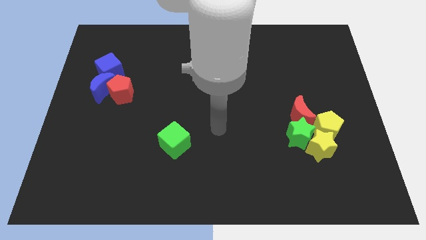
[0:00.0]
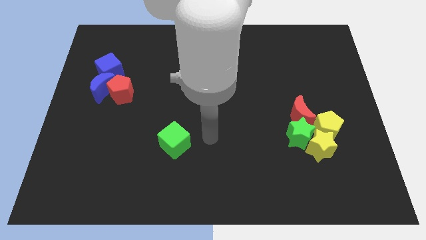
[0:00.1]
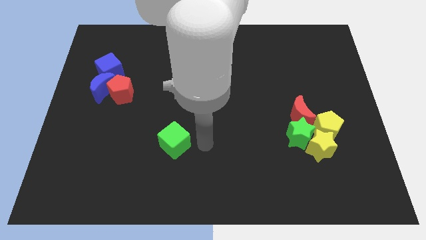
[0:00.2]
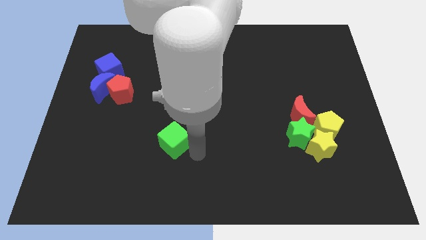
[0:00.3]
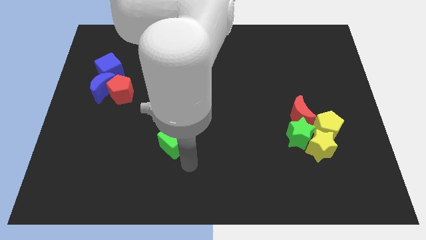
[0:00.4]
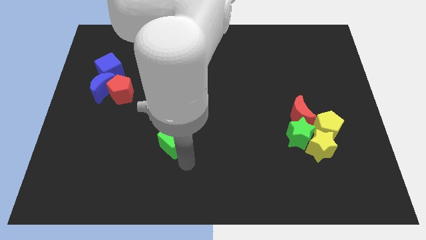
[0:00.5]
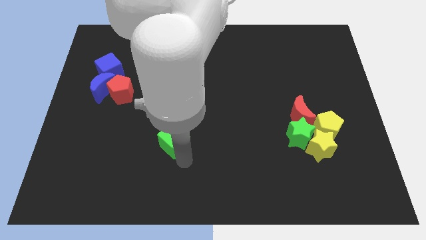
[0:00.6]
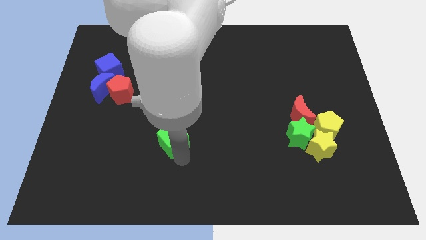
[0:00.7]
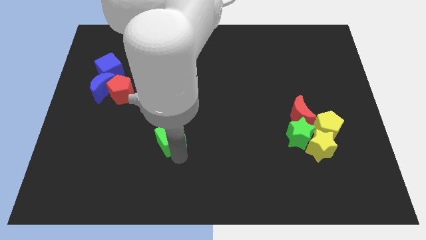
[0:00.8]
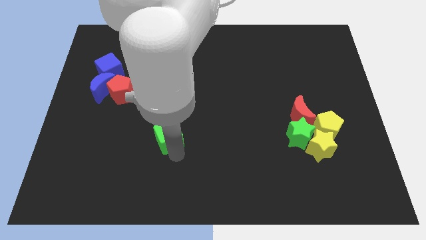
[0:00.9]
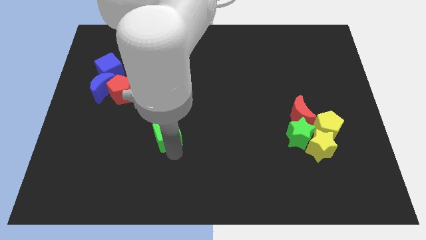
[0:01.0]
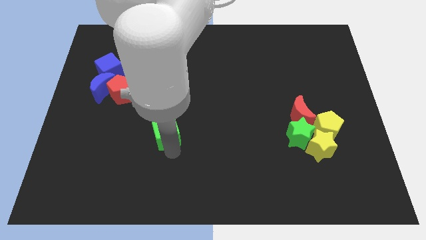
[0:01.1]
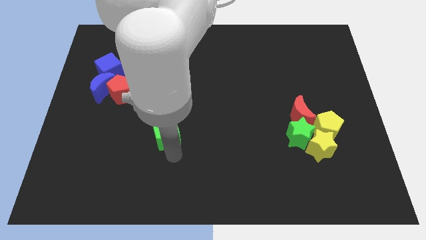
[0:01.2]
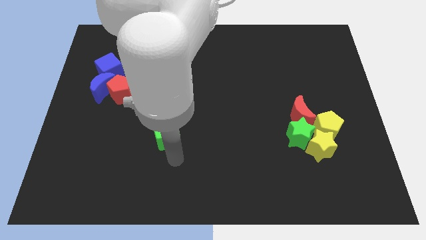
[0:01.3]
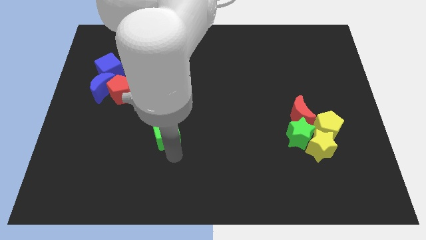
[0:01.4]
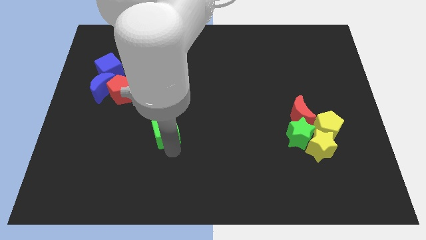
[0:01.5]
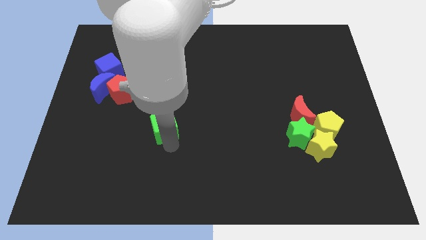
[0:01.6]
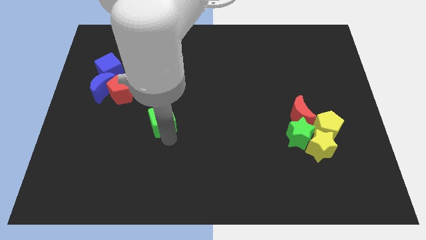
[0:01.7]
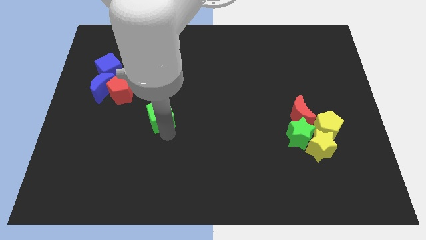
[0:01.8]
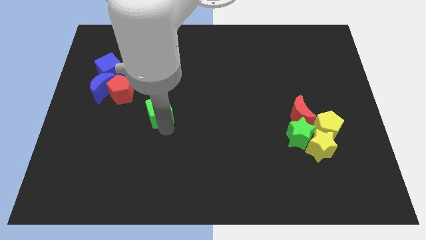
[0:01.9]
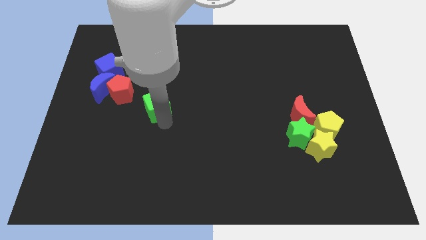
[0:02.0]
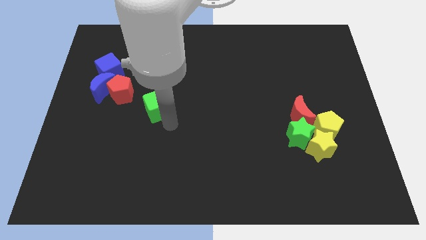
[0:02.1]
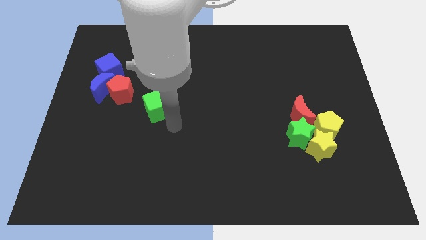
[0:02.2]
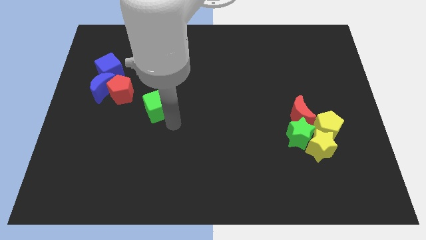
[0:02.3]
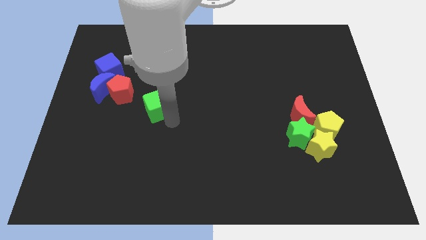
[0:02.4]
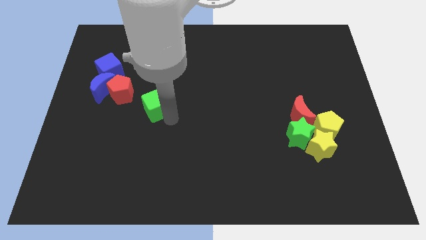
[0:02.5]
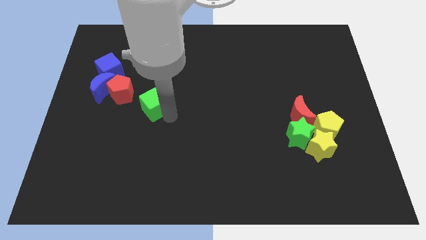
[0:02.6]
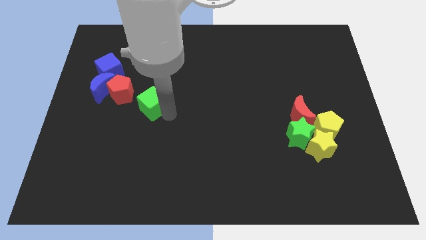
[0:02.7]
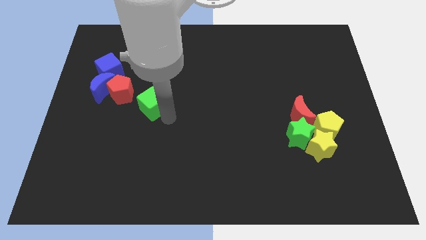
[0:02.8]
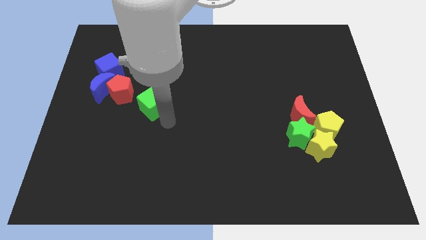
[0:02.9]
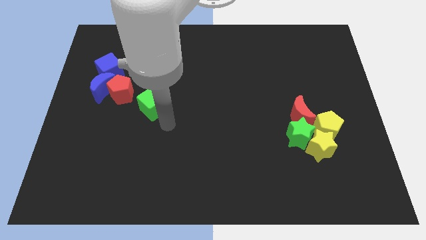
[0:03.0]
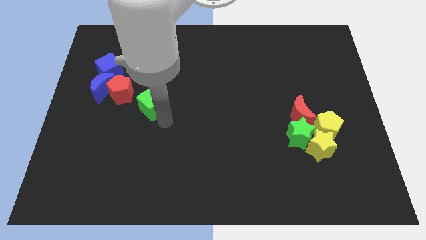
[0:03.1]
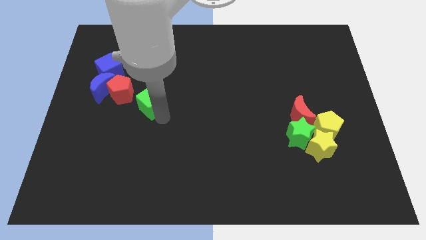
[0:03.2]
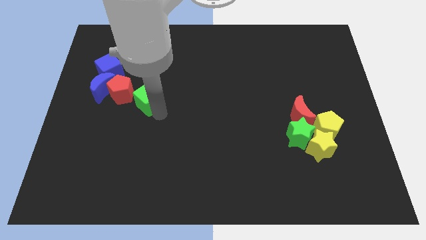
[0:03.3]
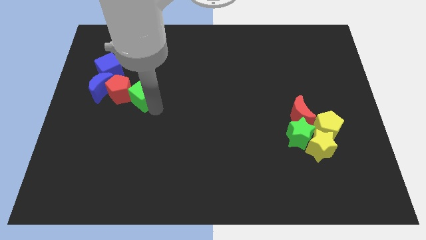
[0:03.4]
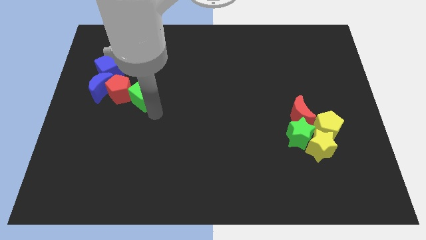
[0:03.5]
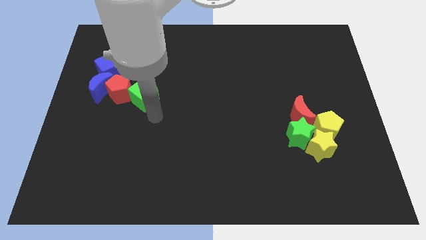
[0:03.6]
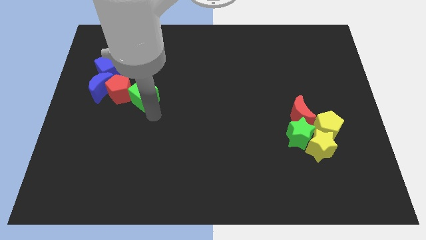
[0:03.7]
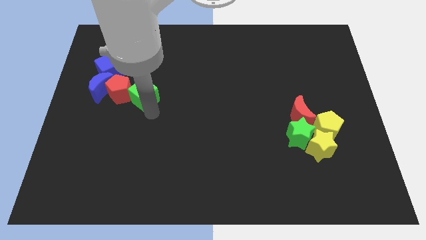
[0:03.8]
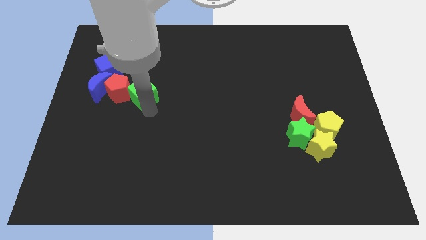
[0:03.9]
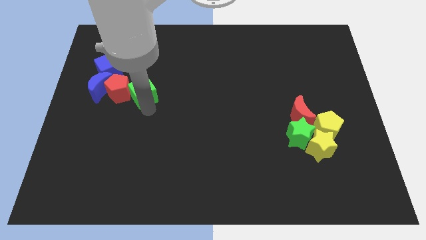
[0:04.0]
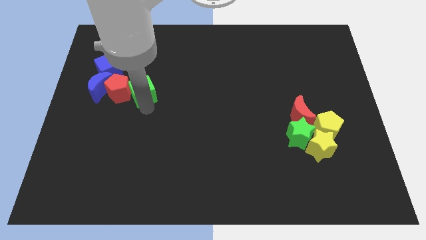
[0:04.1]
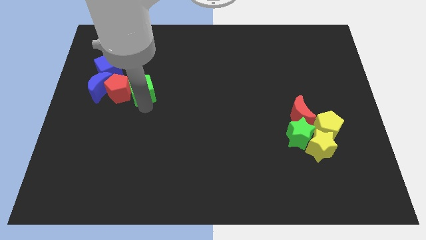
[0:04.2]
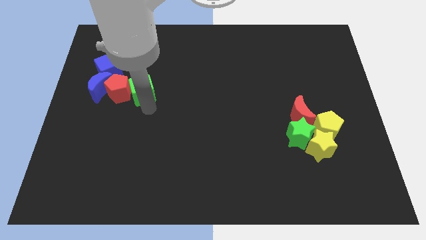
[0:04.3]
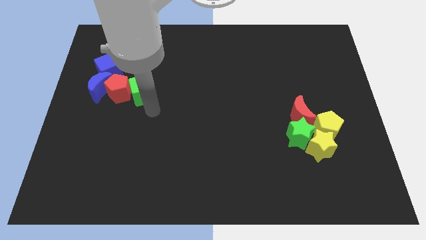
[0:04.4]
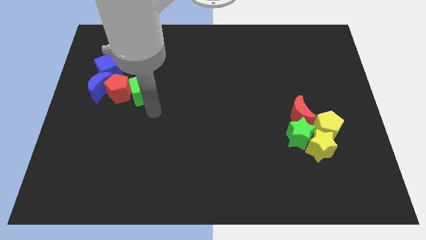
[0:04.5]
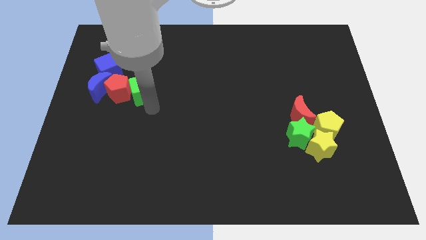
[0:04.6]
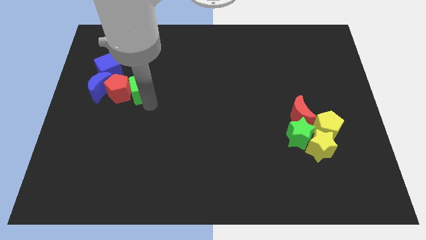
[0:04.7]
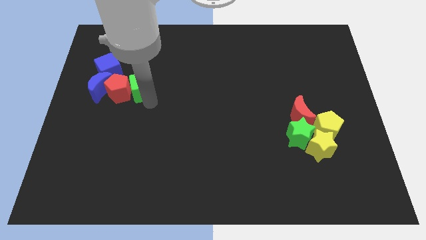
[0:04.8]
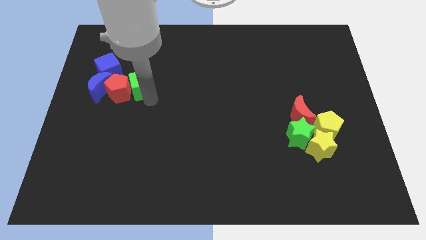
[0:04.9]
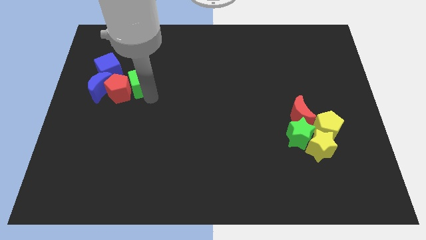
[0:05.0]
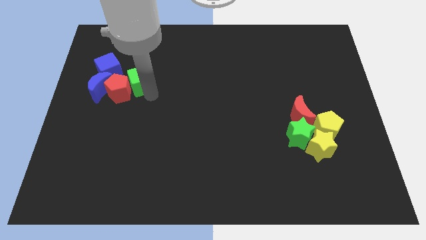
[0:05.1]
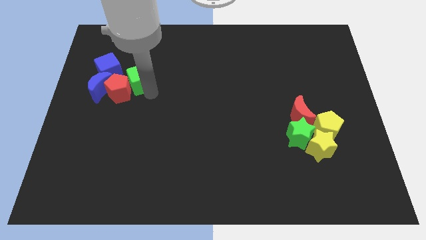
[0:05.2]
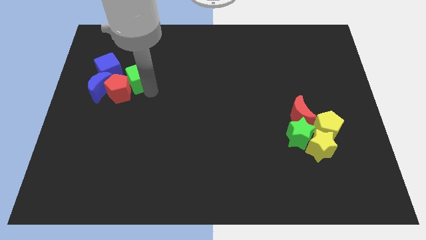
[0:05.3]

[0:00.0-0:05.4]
slide the green cube to the top side of the red pentagon

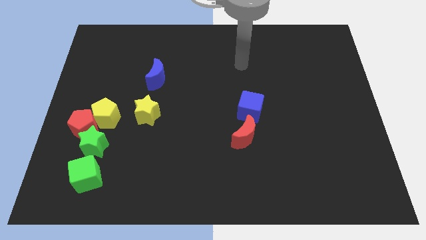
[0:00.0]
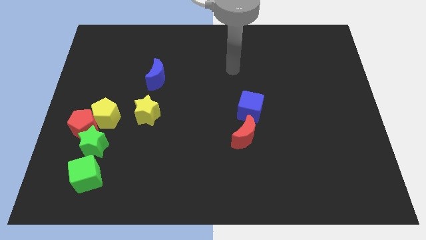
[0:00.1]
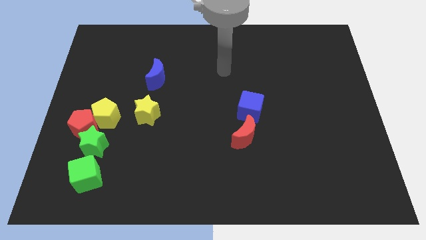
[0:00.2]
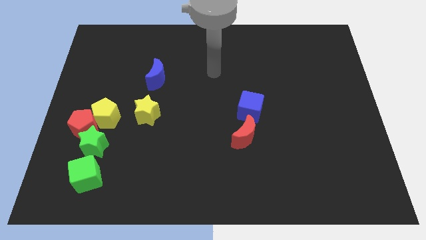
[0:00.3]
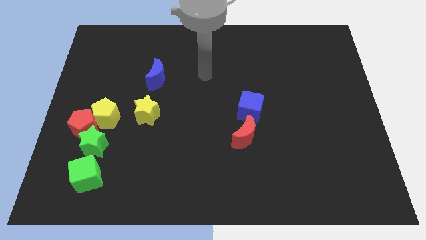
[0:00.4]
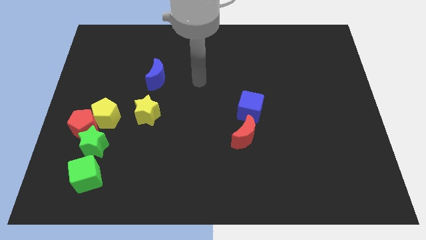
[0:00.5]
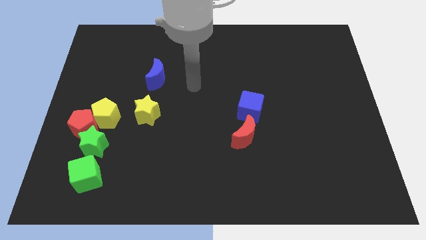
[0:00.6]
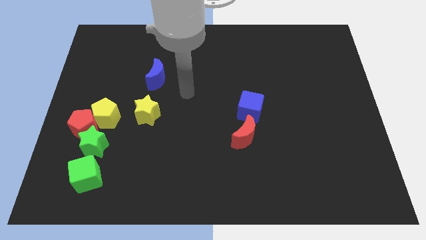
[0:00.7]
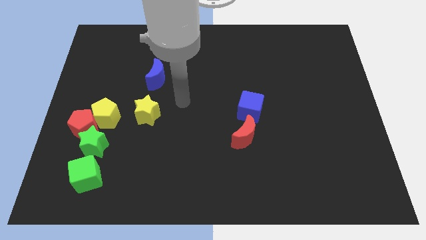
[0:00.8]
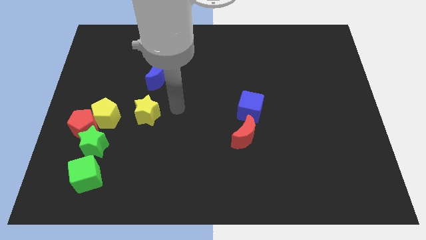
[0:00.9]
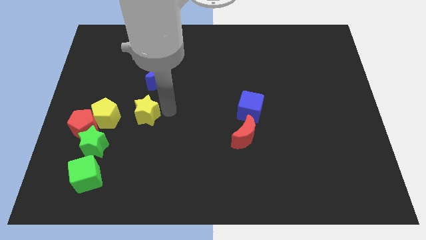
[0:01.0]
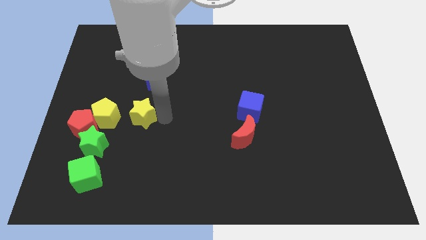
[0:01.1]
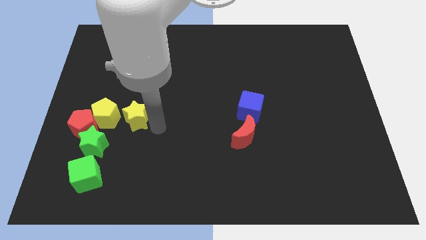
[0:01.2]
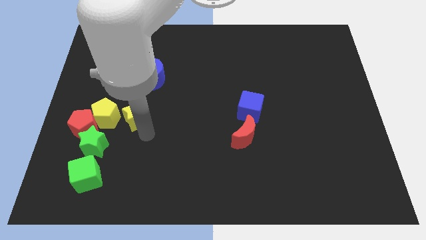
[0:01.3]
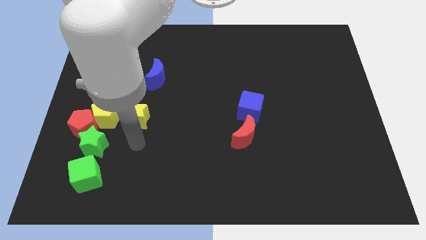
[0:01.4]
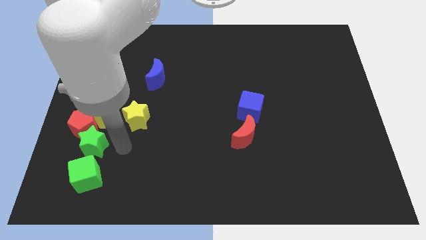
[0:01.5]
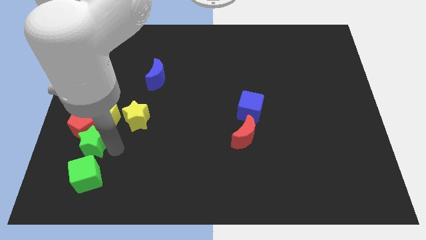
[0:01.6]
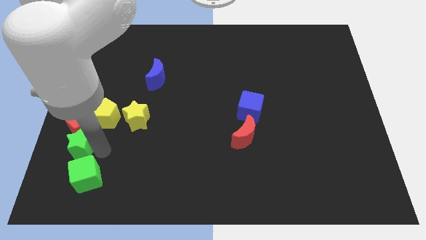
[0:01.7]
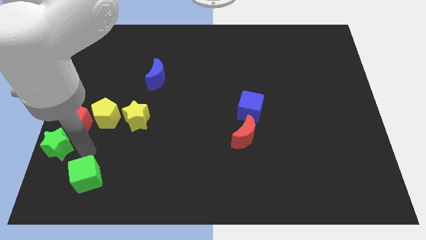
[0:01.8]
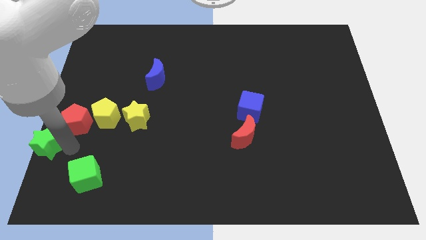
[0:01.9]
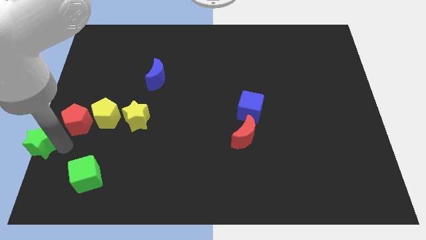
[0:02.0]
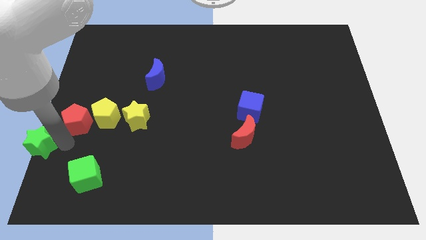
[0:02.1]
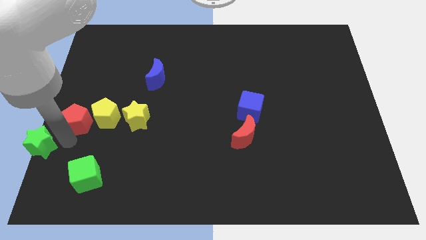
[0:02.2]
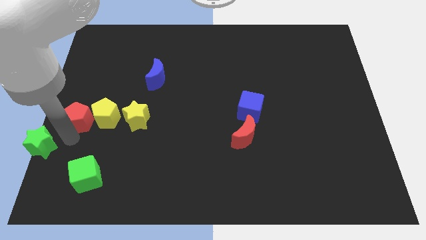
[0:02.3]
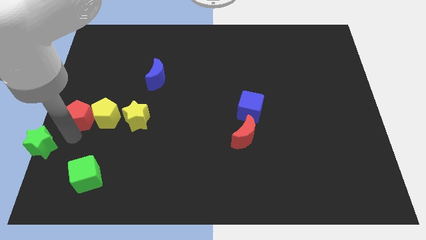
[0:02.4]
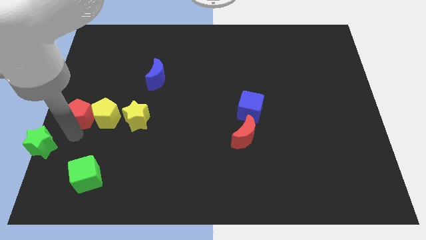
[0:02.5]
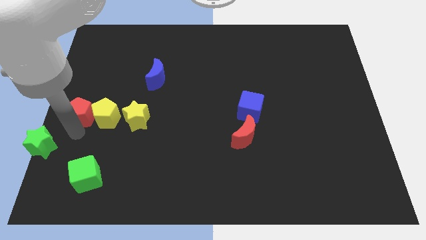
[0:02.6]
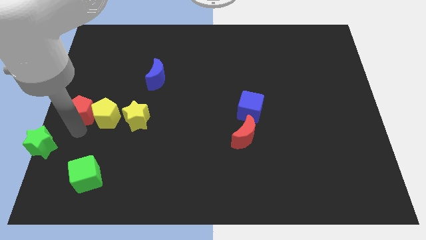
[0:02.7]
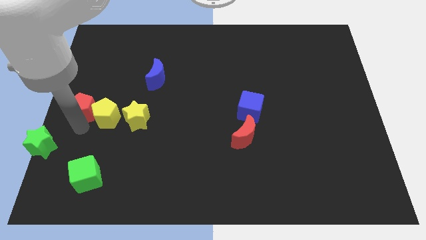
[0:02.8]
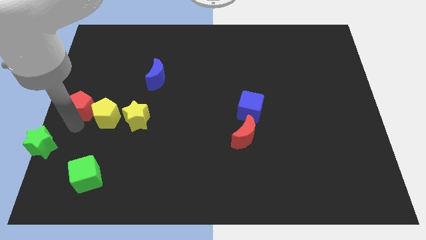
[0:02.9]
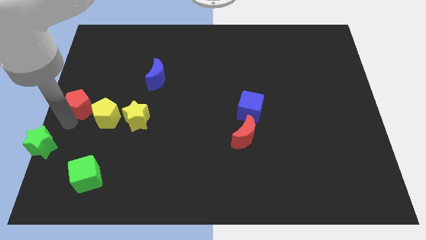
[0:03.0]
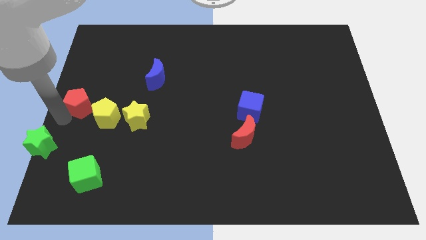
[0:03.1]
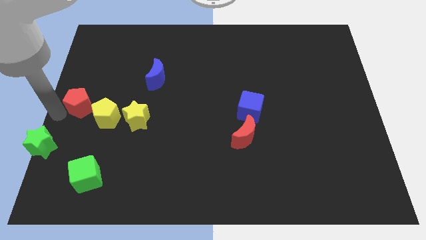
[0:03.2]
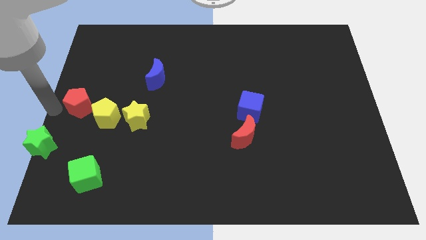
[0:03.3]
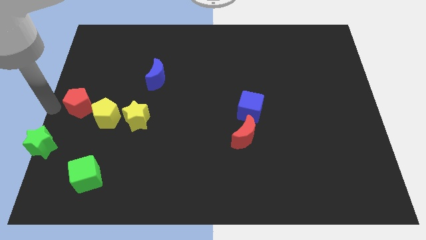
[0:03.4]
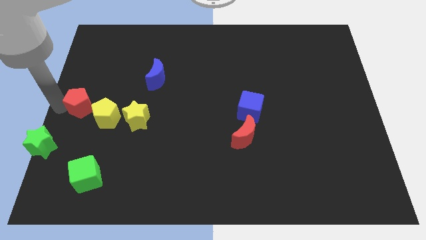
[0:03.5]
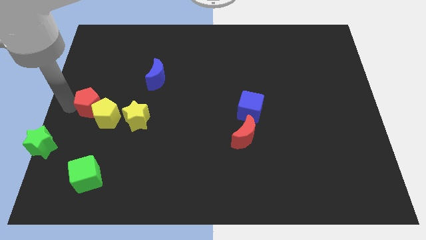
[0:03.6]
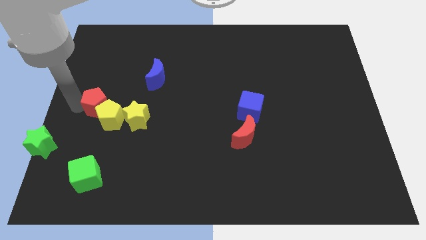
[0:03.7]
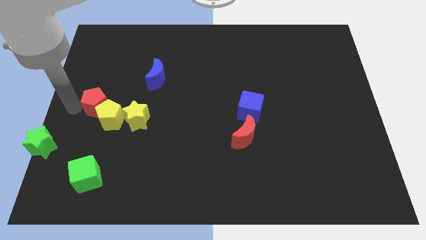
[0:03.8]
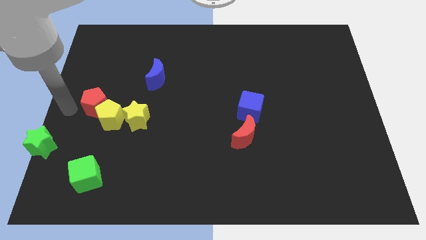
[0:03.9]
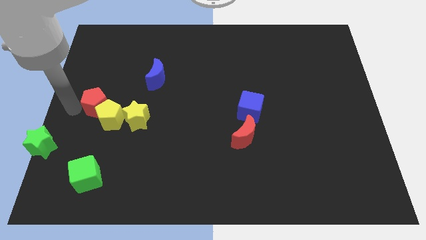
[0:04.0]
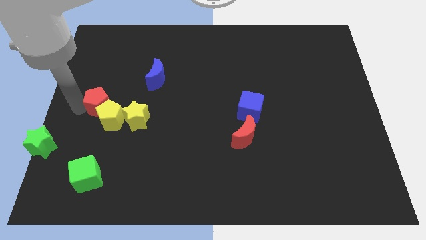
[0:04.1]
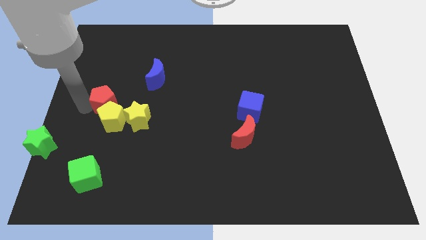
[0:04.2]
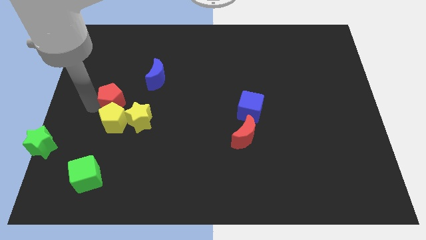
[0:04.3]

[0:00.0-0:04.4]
push the red pentagon to the bottom left of the blue moon
